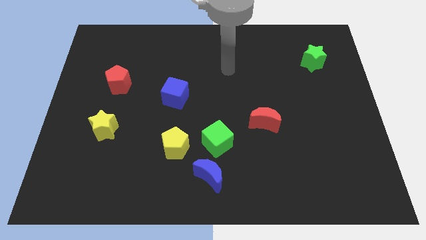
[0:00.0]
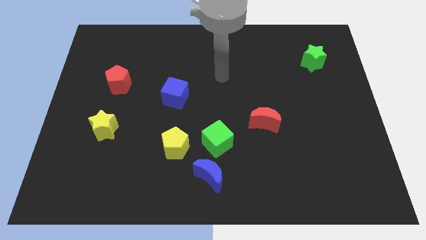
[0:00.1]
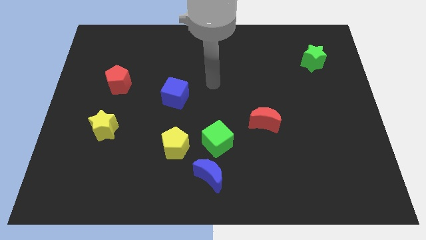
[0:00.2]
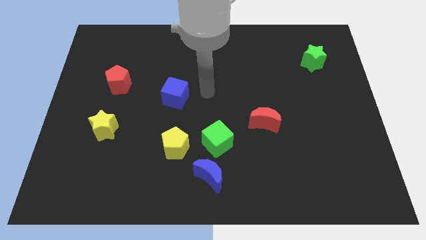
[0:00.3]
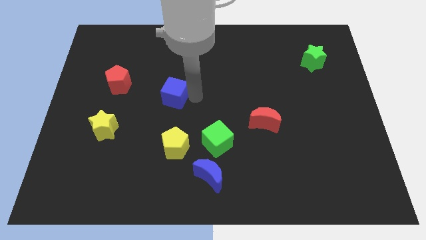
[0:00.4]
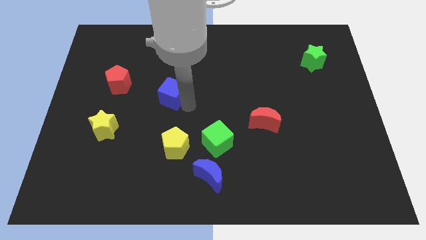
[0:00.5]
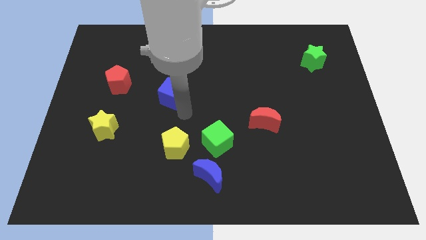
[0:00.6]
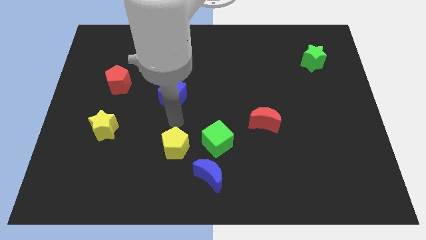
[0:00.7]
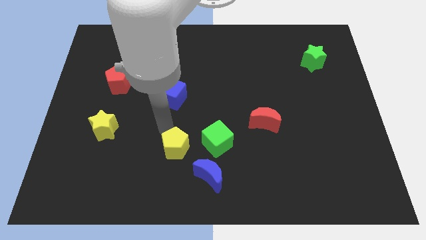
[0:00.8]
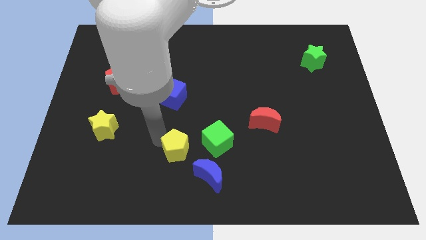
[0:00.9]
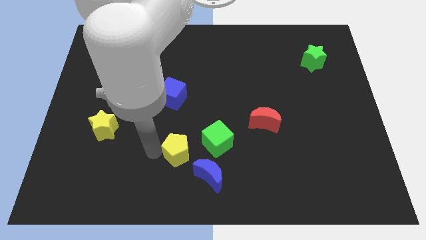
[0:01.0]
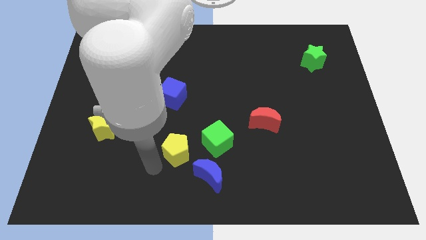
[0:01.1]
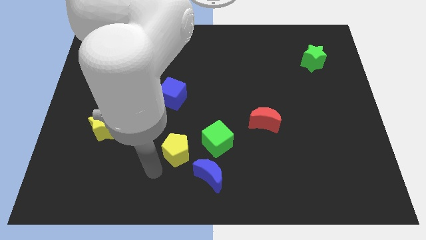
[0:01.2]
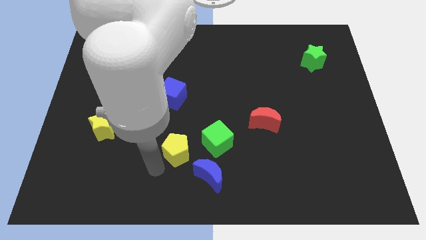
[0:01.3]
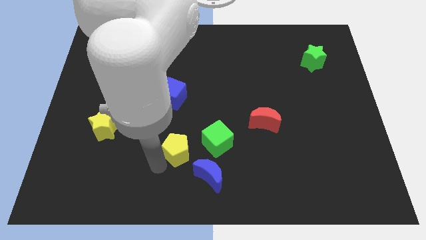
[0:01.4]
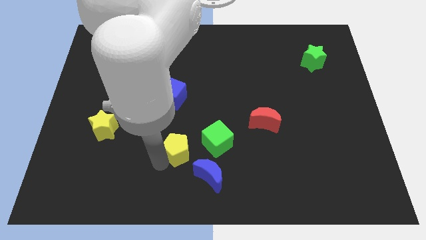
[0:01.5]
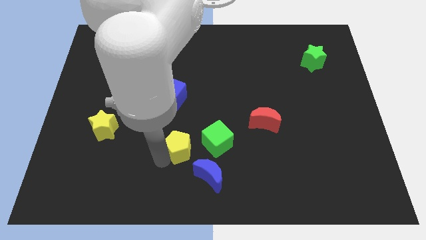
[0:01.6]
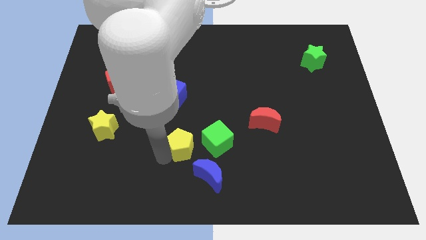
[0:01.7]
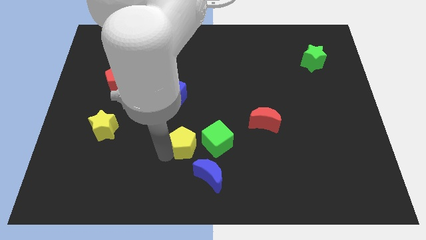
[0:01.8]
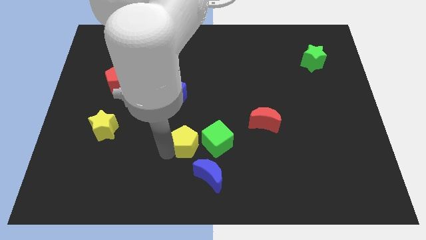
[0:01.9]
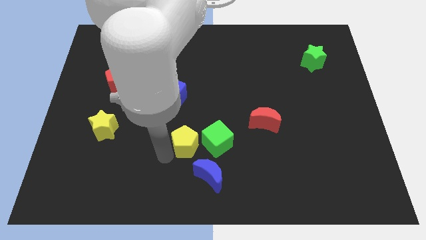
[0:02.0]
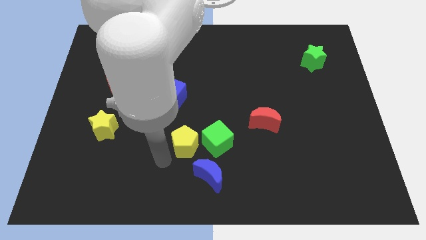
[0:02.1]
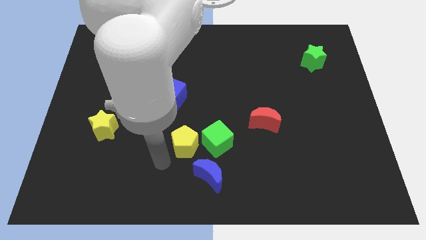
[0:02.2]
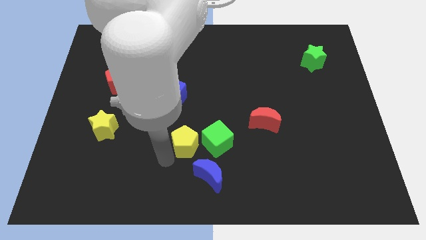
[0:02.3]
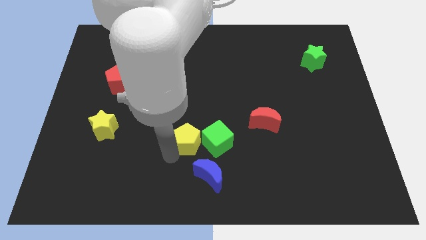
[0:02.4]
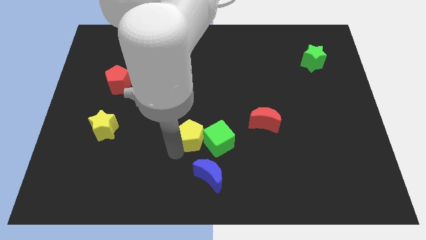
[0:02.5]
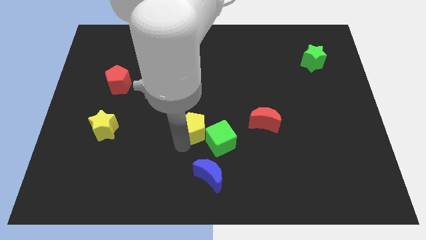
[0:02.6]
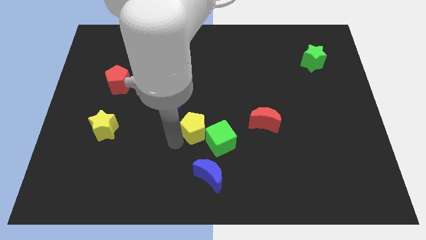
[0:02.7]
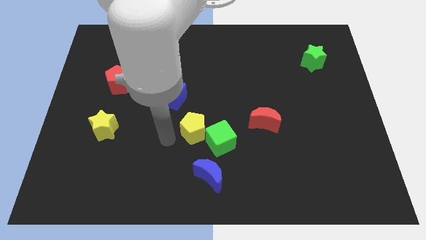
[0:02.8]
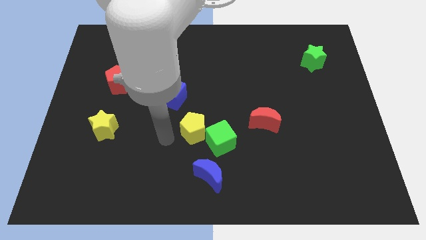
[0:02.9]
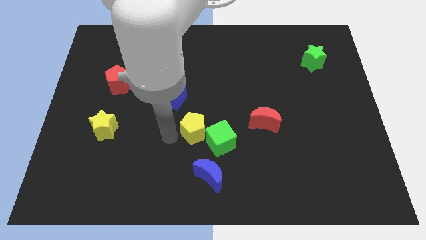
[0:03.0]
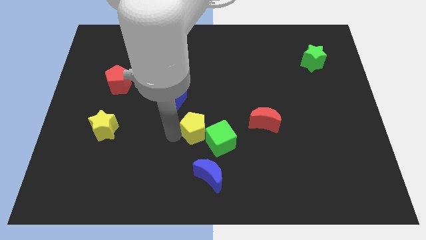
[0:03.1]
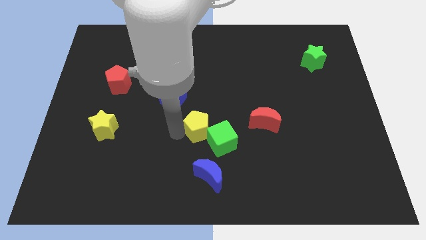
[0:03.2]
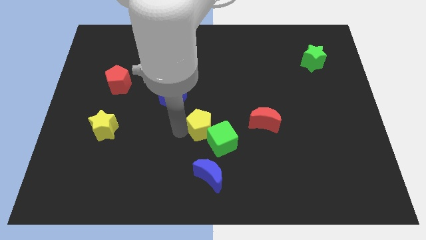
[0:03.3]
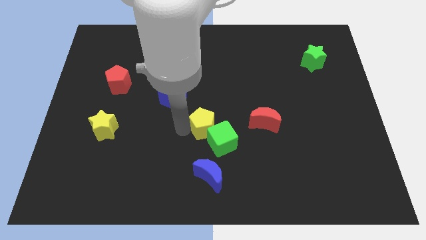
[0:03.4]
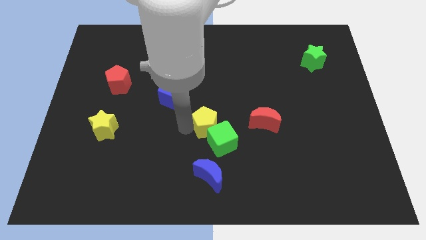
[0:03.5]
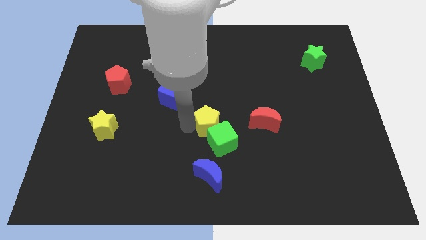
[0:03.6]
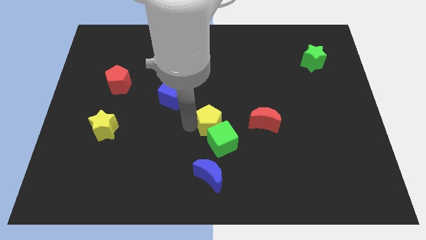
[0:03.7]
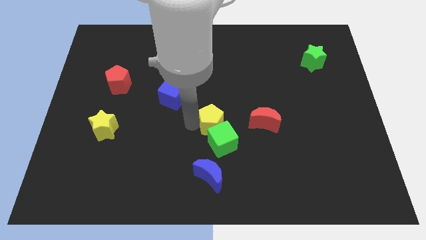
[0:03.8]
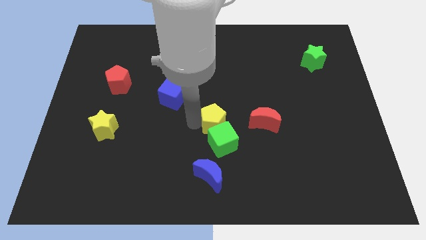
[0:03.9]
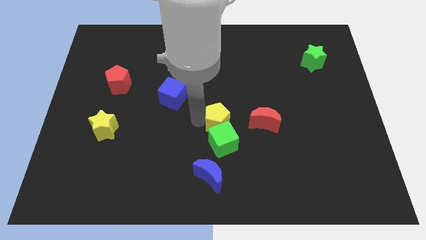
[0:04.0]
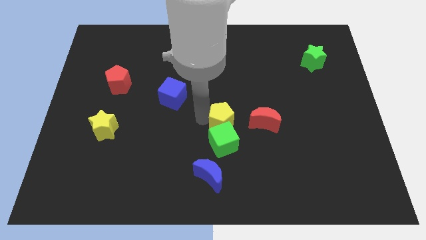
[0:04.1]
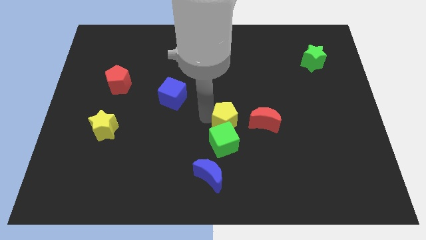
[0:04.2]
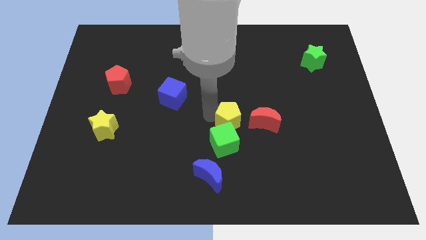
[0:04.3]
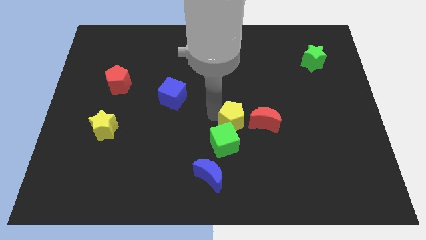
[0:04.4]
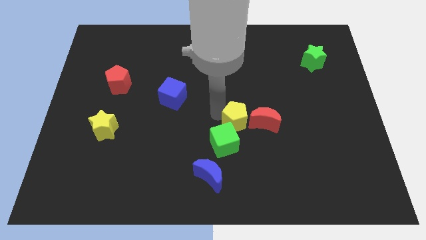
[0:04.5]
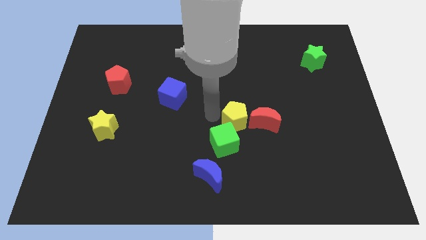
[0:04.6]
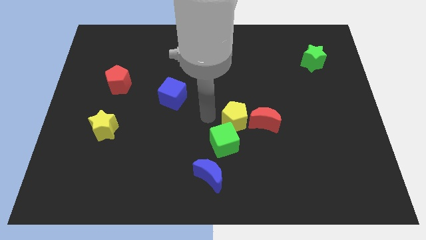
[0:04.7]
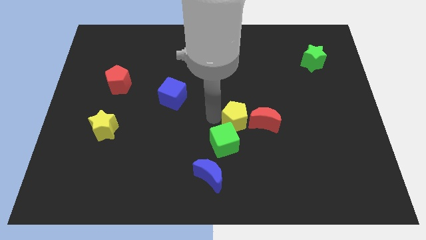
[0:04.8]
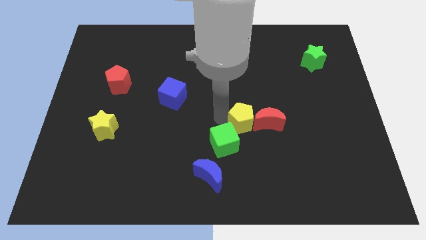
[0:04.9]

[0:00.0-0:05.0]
put the yellow pentagon close to the red moon

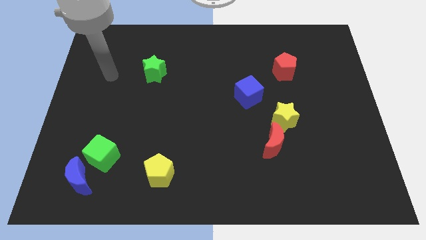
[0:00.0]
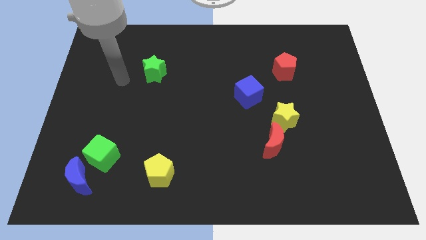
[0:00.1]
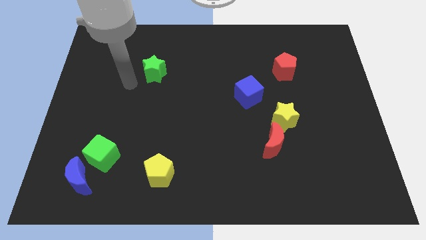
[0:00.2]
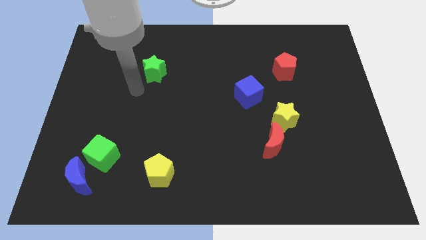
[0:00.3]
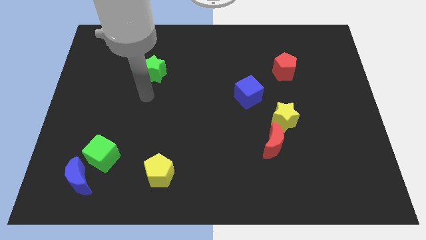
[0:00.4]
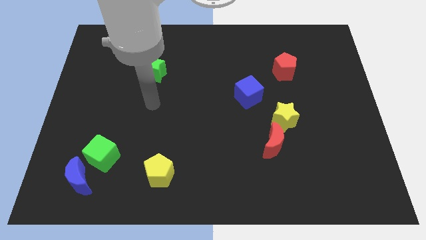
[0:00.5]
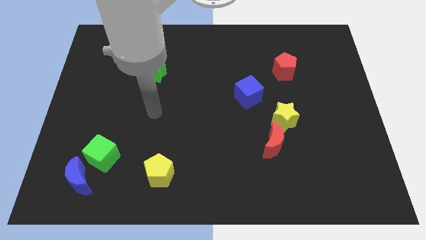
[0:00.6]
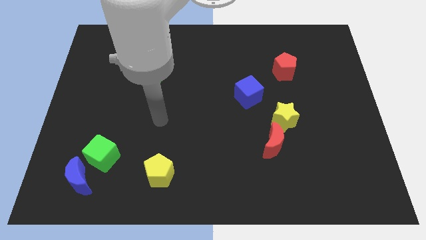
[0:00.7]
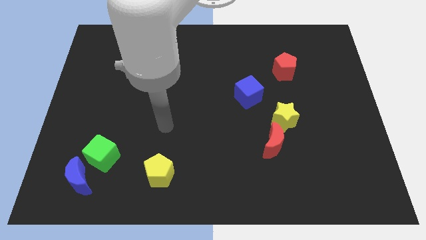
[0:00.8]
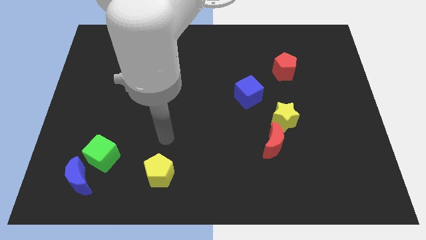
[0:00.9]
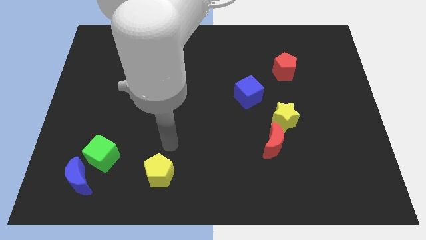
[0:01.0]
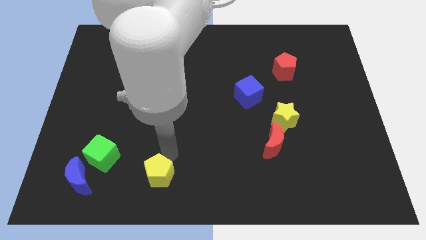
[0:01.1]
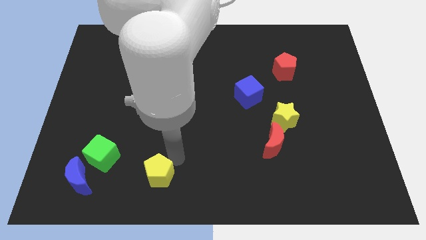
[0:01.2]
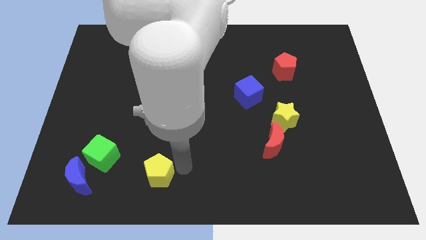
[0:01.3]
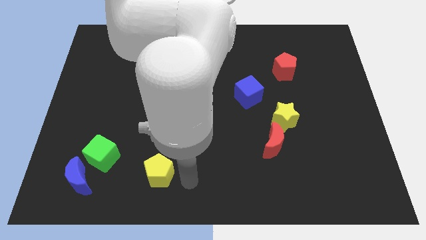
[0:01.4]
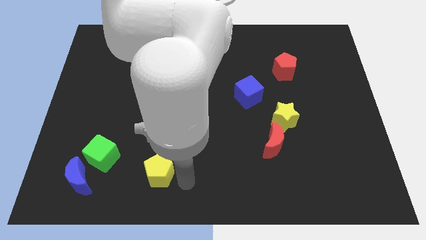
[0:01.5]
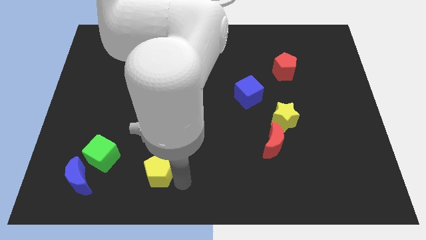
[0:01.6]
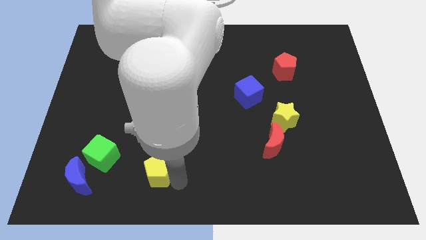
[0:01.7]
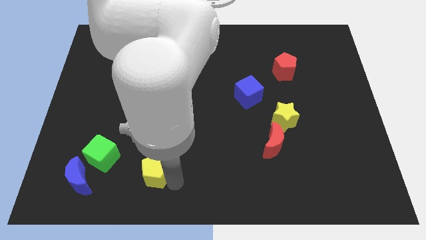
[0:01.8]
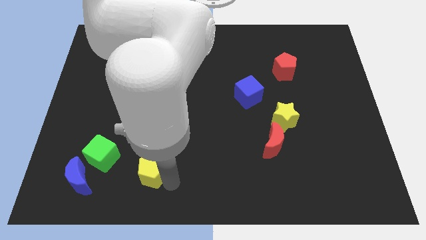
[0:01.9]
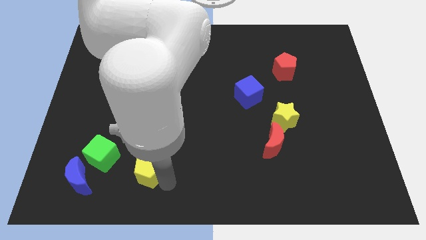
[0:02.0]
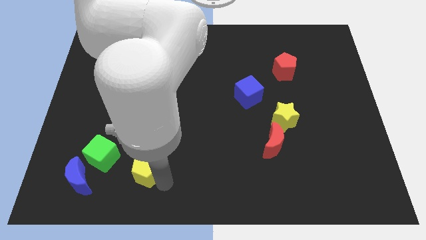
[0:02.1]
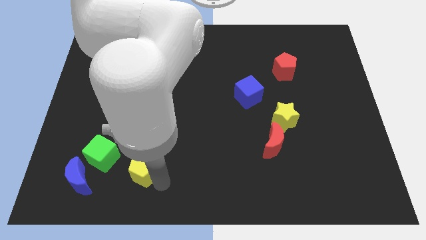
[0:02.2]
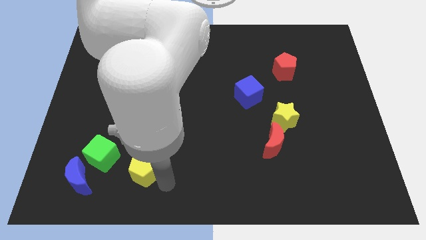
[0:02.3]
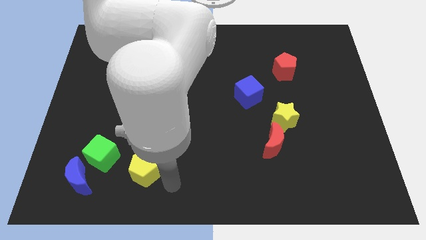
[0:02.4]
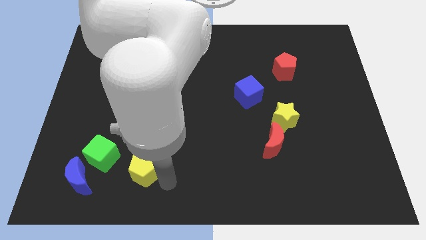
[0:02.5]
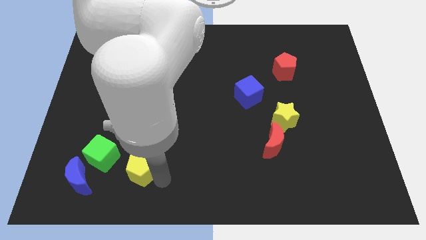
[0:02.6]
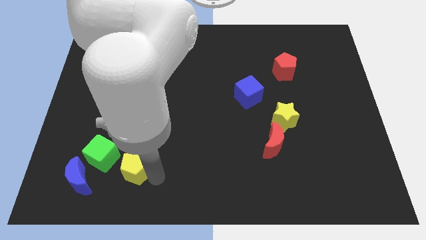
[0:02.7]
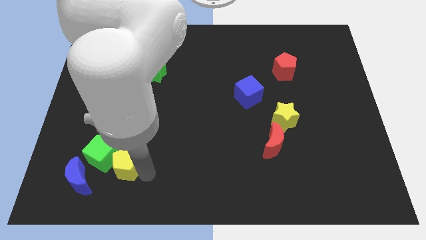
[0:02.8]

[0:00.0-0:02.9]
put the yellow pentagon next to the green cube
